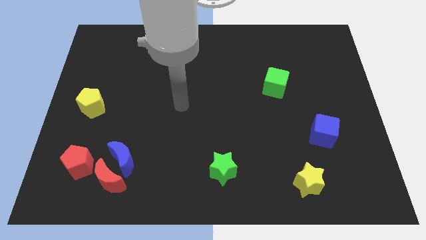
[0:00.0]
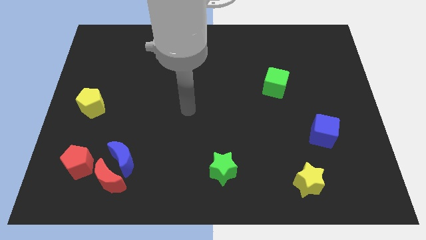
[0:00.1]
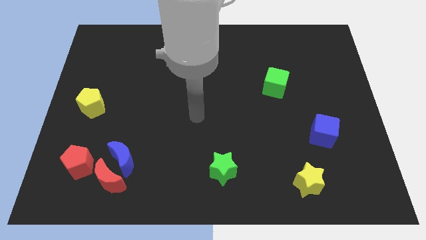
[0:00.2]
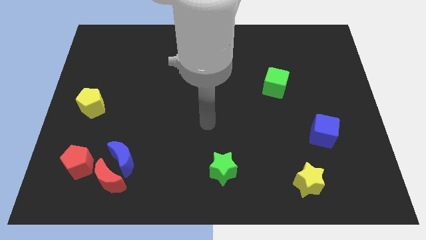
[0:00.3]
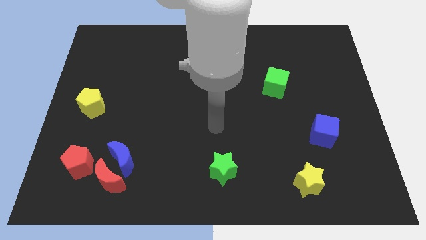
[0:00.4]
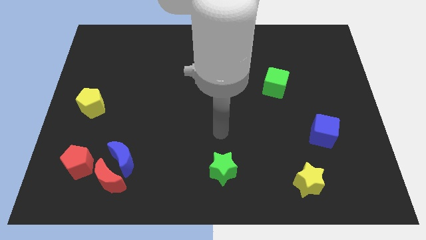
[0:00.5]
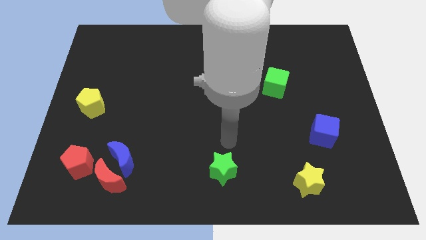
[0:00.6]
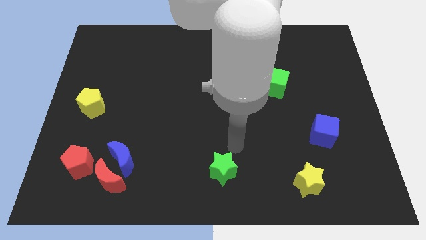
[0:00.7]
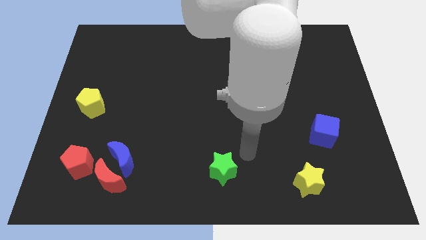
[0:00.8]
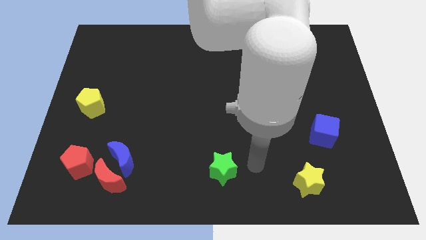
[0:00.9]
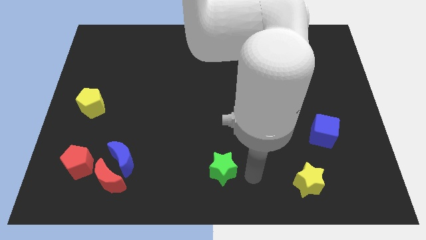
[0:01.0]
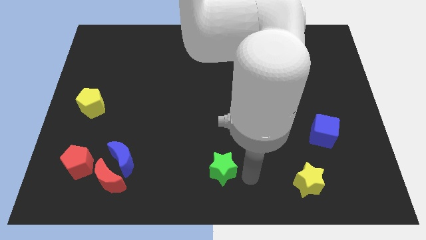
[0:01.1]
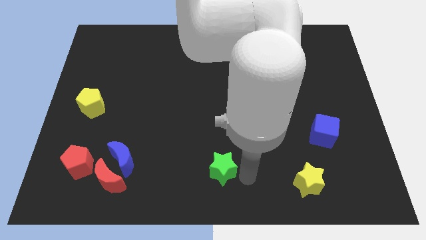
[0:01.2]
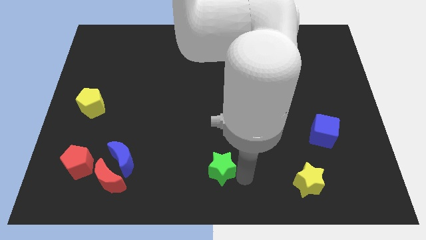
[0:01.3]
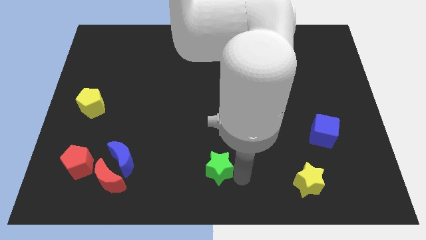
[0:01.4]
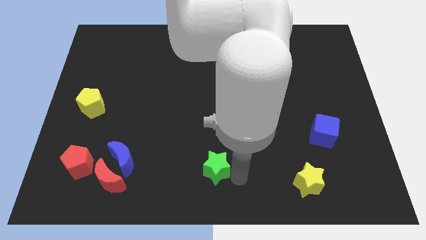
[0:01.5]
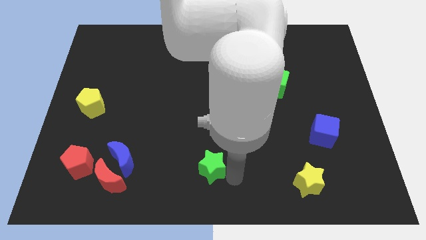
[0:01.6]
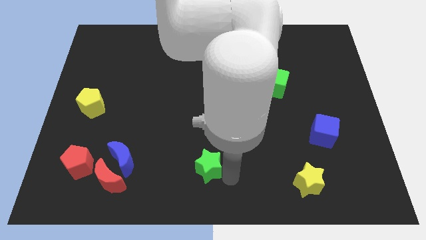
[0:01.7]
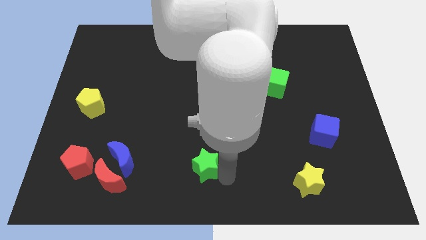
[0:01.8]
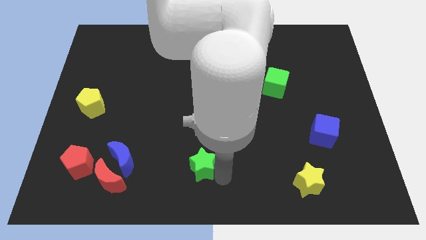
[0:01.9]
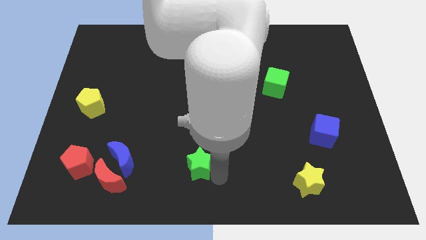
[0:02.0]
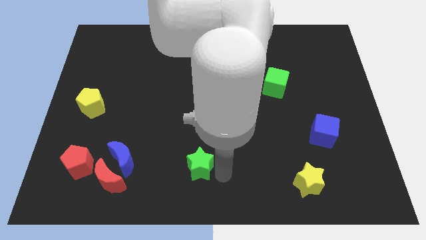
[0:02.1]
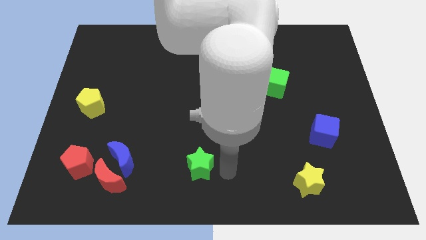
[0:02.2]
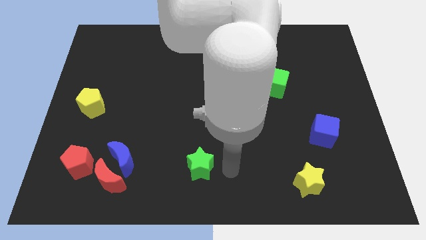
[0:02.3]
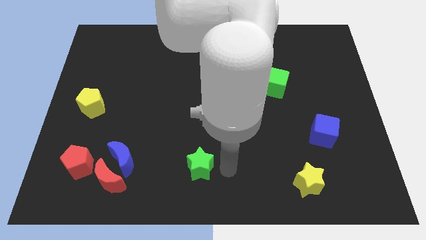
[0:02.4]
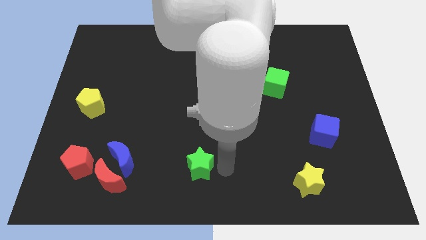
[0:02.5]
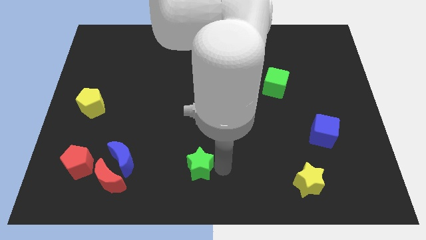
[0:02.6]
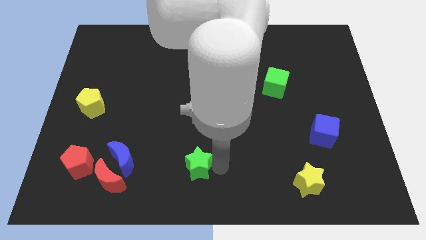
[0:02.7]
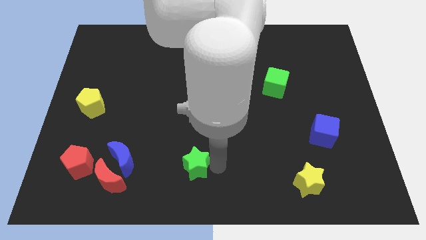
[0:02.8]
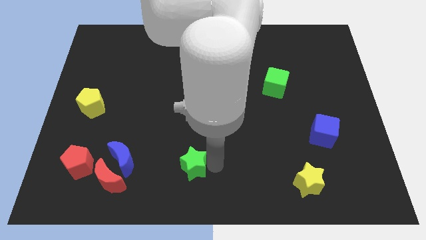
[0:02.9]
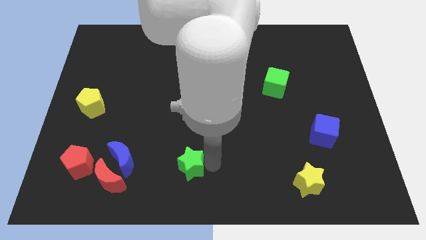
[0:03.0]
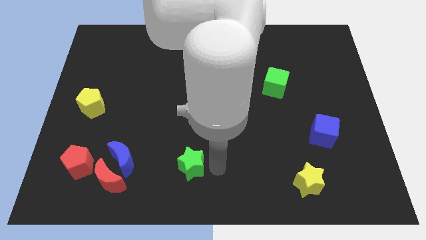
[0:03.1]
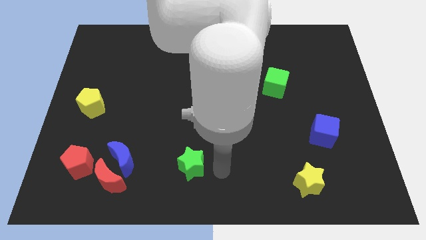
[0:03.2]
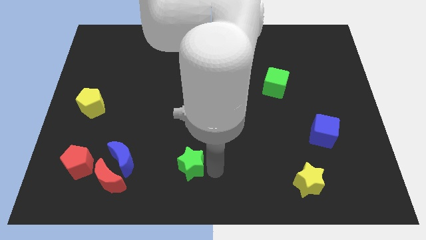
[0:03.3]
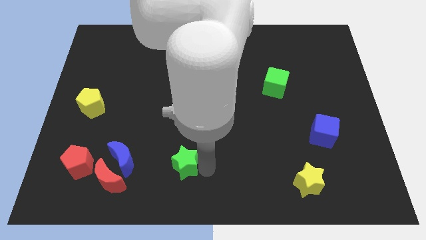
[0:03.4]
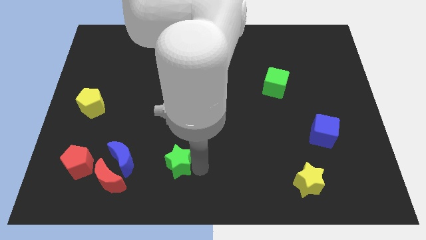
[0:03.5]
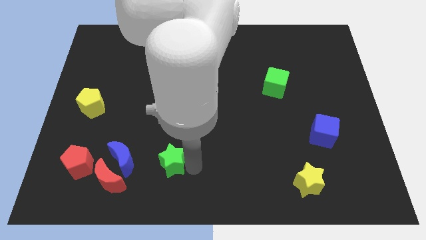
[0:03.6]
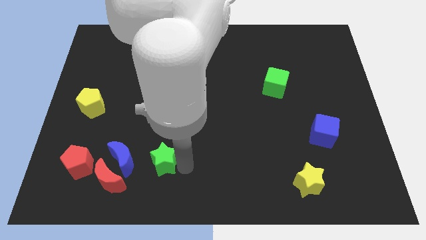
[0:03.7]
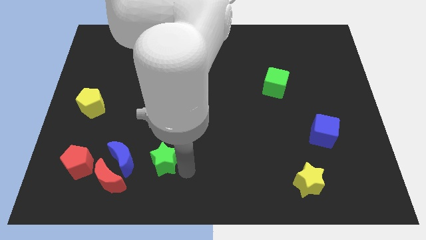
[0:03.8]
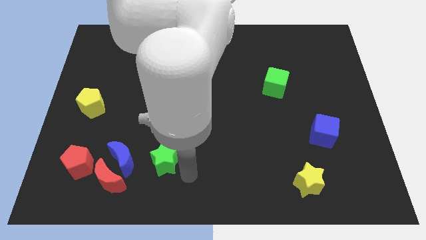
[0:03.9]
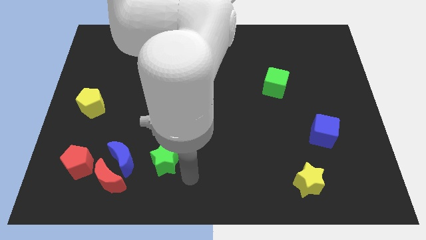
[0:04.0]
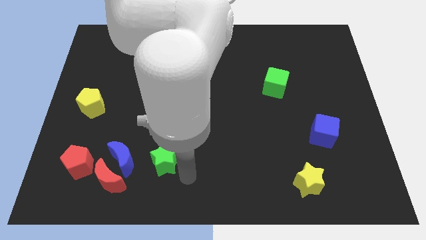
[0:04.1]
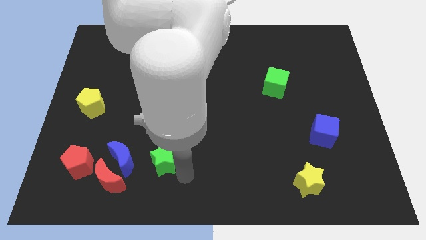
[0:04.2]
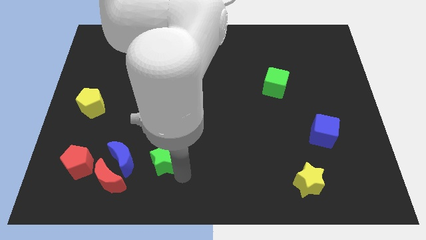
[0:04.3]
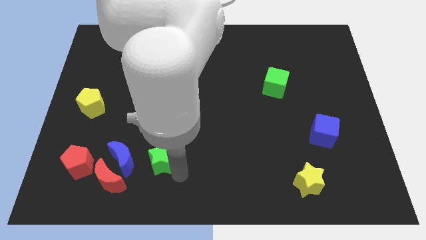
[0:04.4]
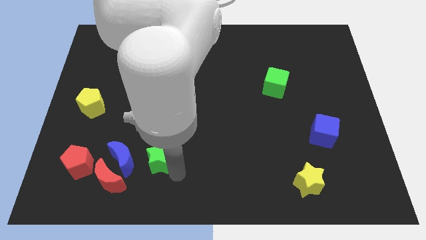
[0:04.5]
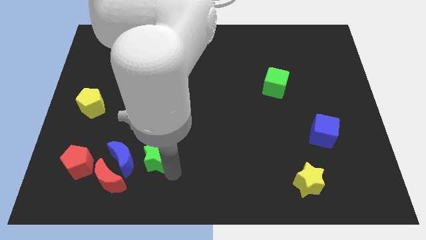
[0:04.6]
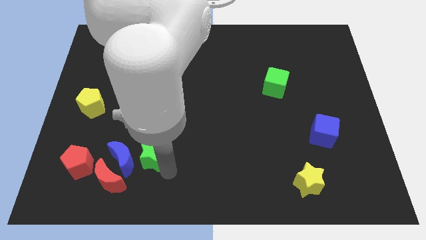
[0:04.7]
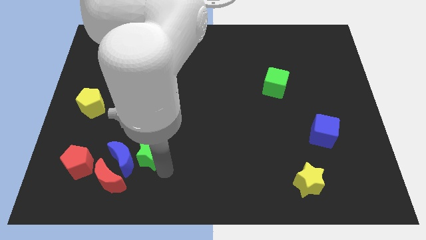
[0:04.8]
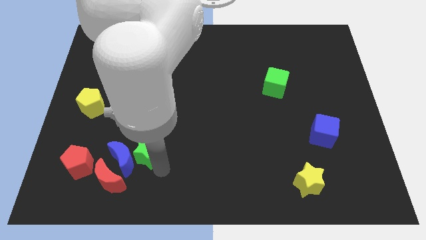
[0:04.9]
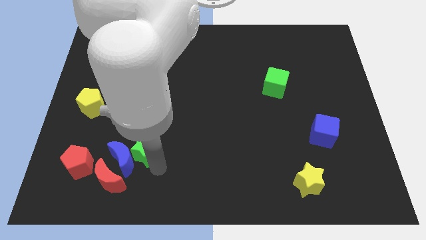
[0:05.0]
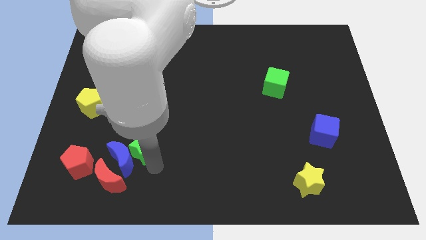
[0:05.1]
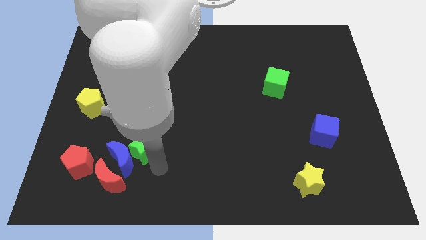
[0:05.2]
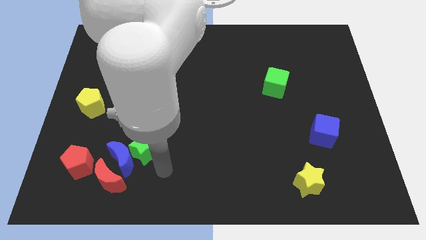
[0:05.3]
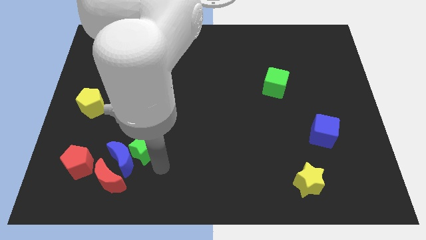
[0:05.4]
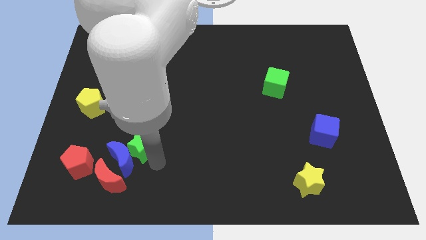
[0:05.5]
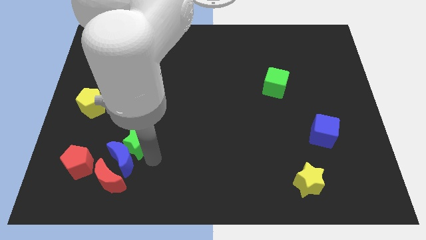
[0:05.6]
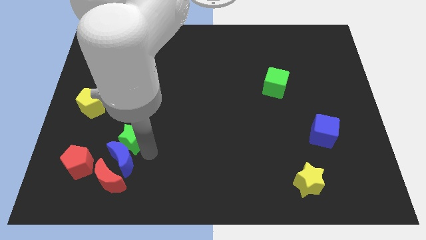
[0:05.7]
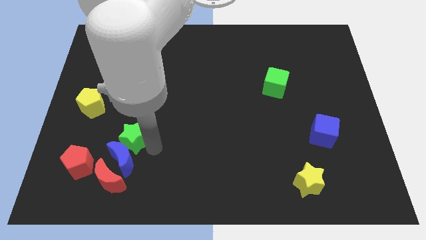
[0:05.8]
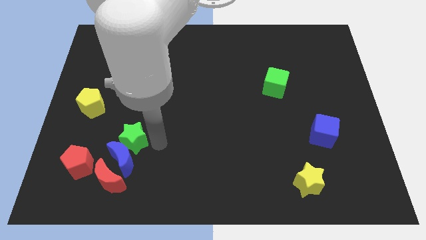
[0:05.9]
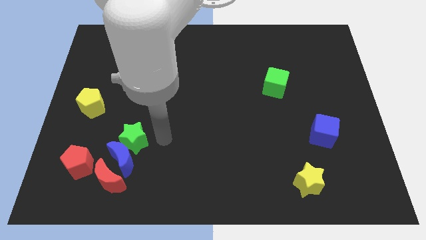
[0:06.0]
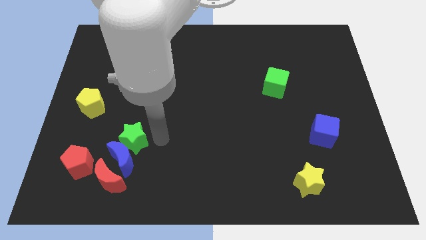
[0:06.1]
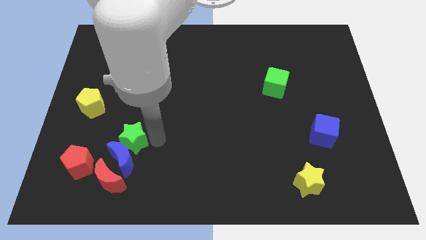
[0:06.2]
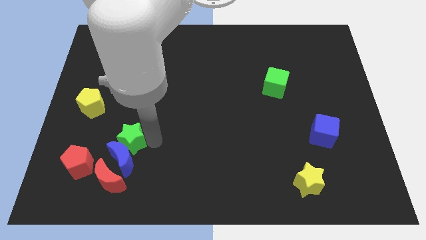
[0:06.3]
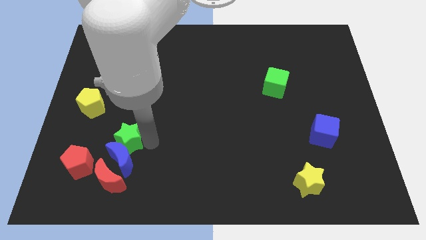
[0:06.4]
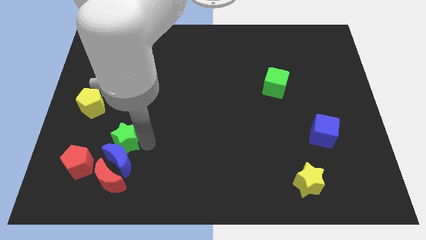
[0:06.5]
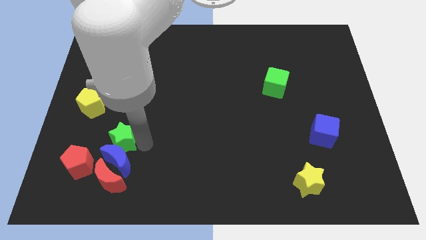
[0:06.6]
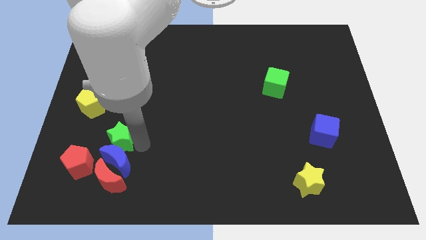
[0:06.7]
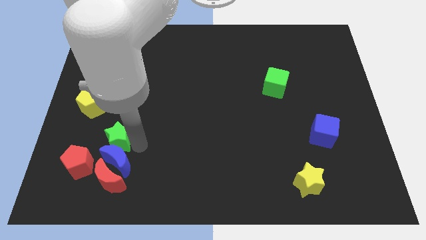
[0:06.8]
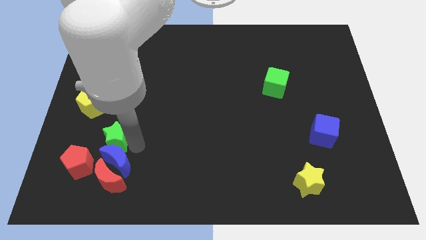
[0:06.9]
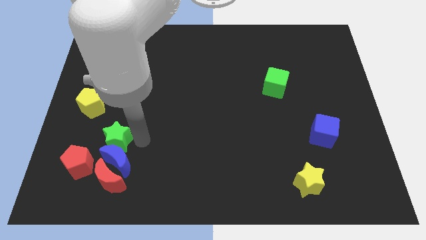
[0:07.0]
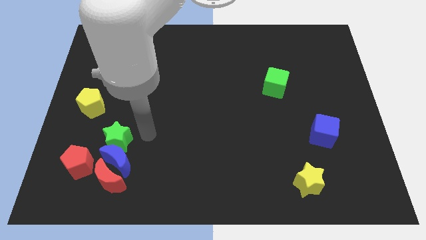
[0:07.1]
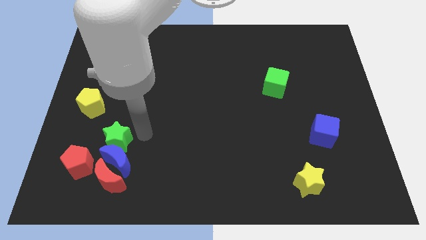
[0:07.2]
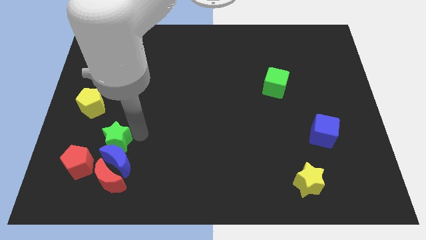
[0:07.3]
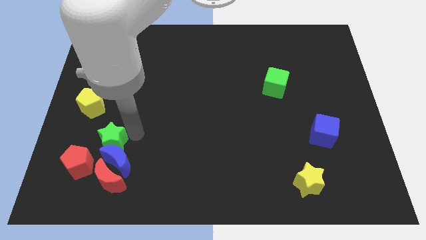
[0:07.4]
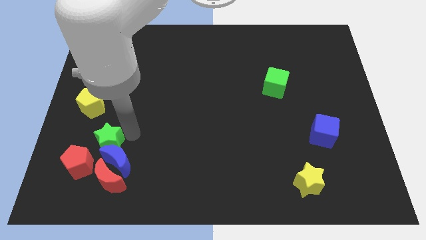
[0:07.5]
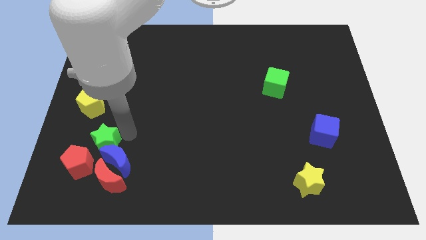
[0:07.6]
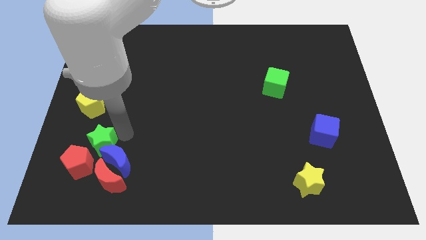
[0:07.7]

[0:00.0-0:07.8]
move the green star to the top left of the red moon
